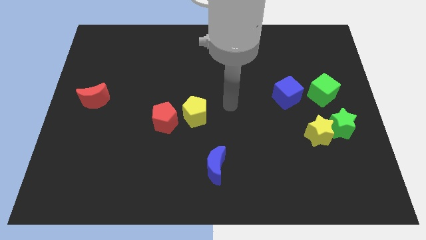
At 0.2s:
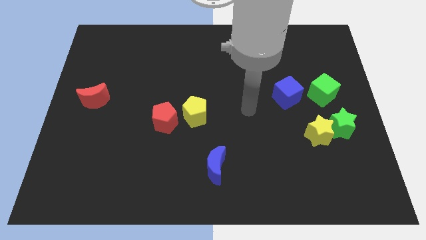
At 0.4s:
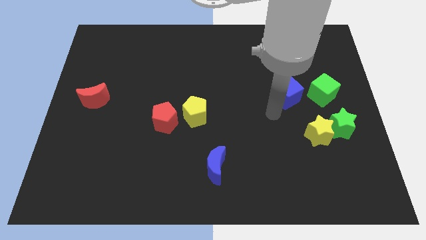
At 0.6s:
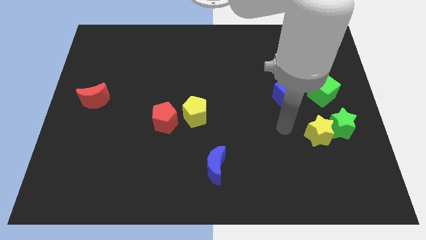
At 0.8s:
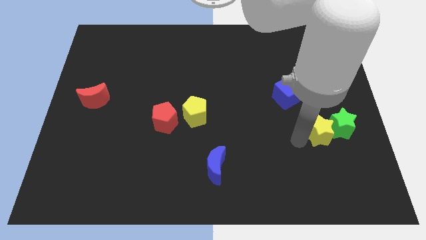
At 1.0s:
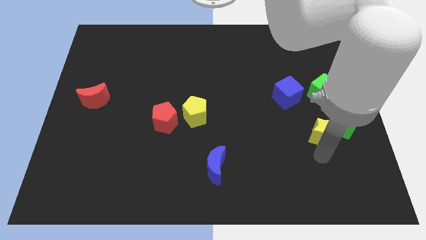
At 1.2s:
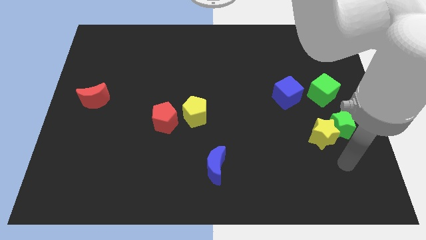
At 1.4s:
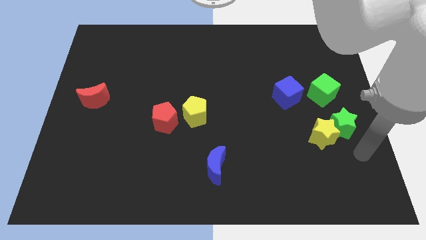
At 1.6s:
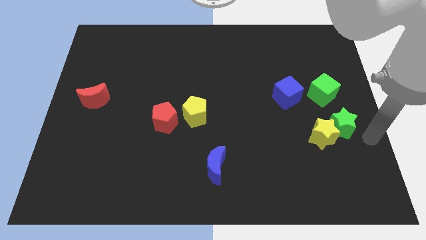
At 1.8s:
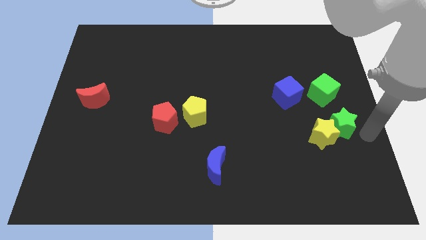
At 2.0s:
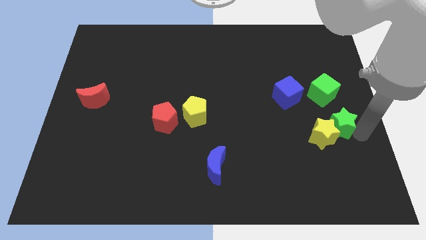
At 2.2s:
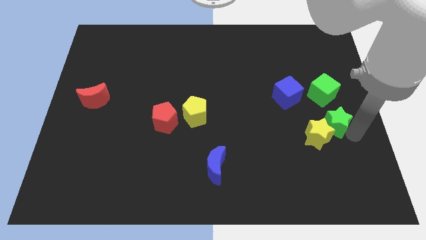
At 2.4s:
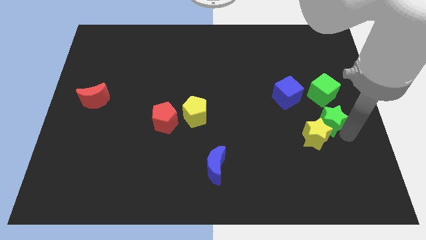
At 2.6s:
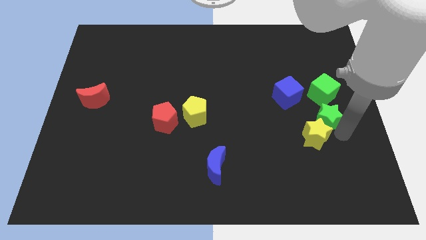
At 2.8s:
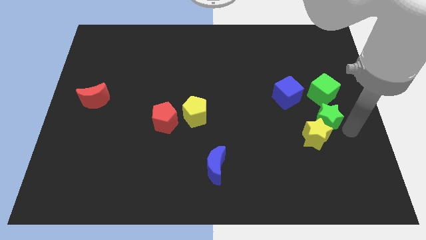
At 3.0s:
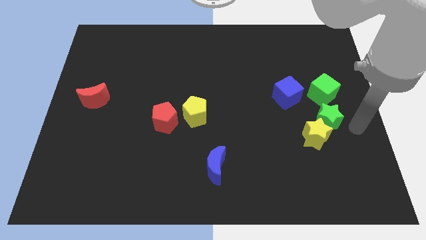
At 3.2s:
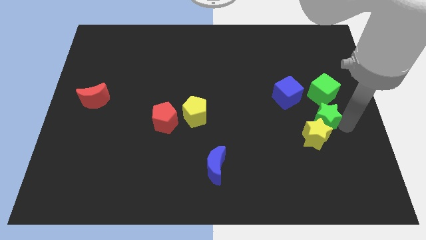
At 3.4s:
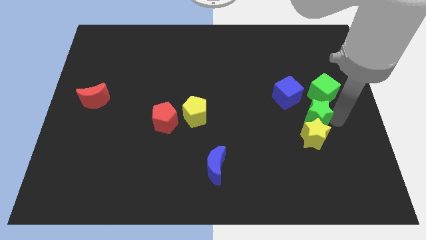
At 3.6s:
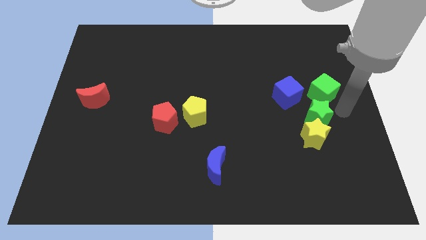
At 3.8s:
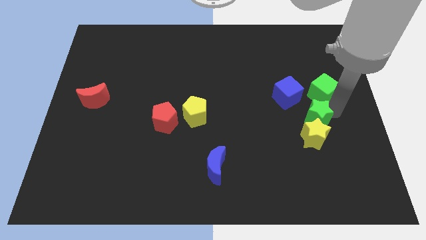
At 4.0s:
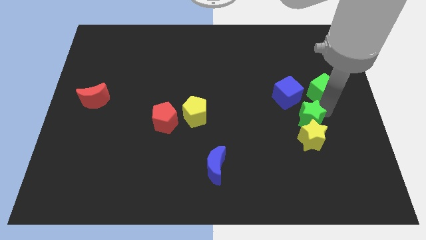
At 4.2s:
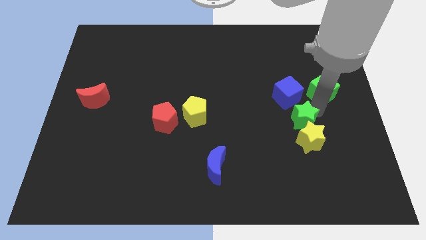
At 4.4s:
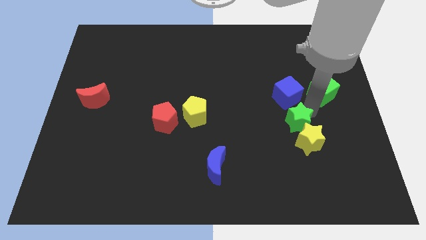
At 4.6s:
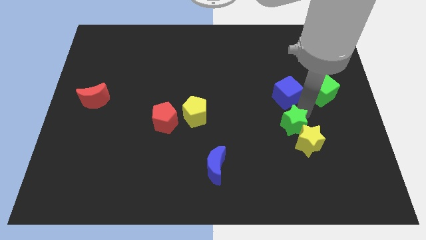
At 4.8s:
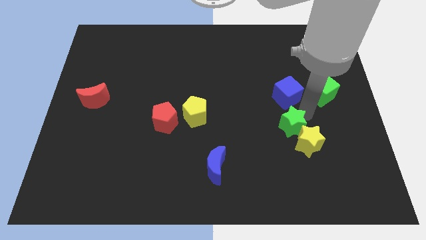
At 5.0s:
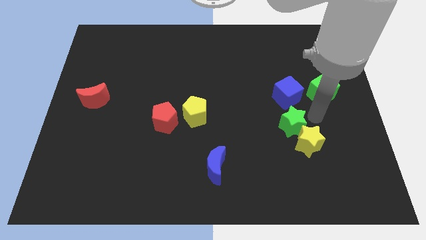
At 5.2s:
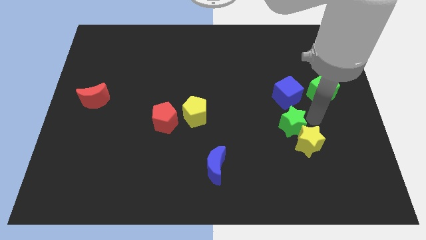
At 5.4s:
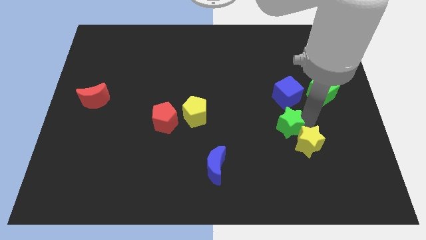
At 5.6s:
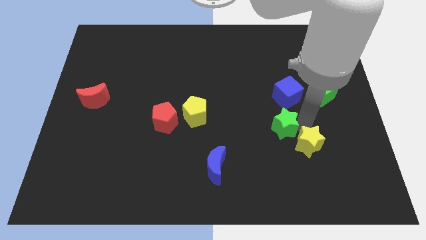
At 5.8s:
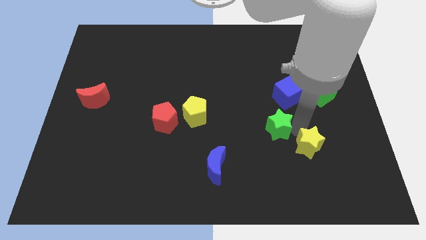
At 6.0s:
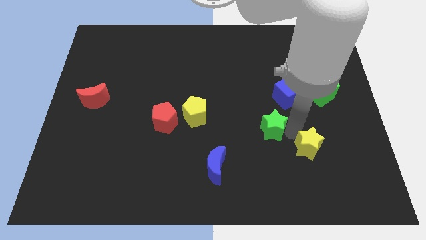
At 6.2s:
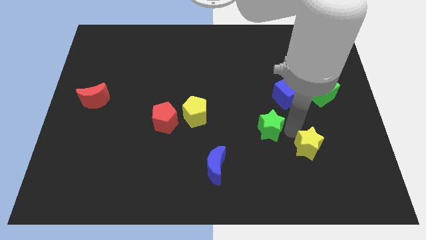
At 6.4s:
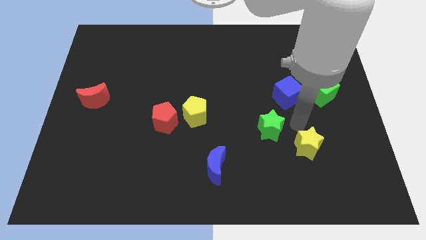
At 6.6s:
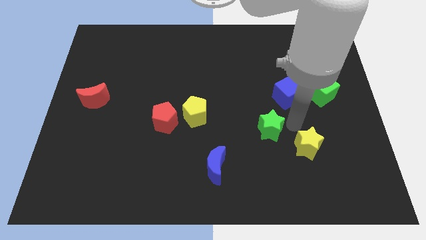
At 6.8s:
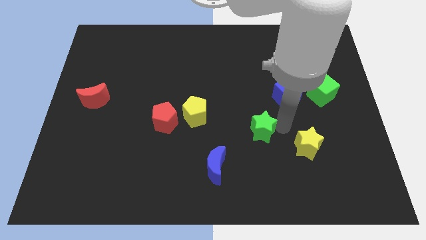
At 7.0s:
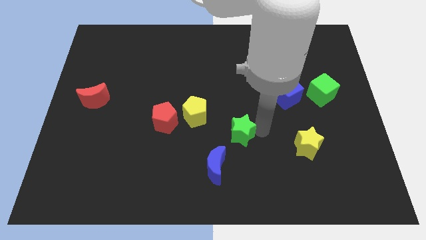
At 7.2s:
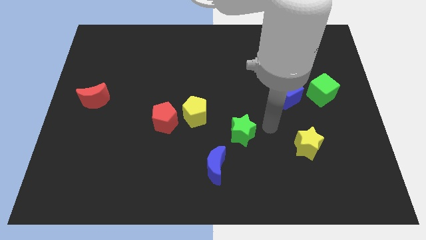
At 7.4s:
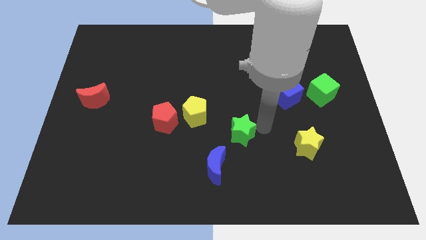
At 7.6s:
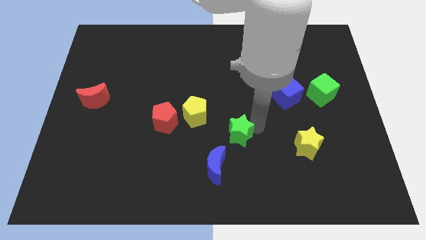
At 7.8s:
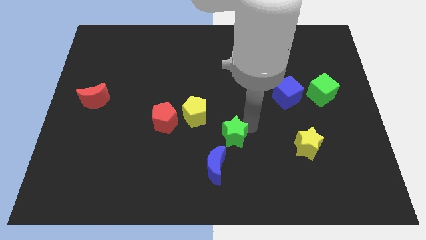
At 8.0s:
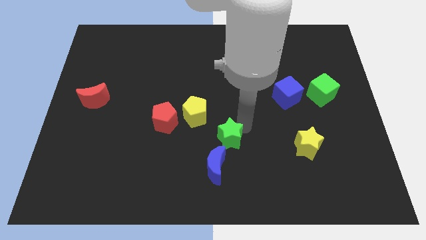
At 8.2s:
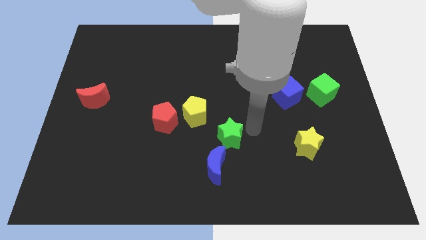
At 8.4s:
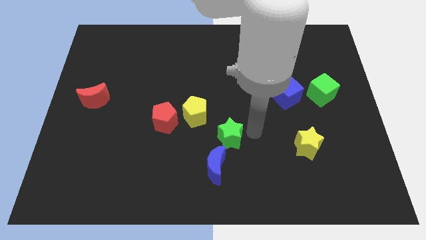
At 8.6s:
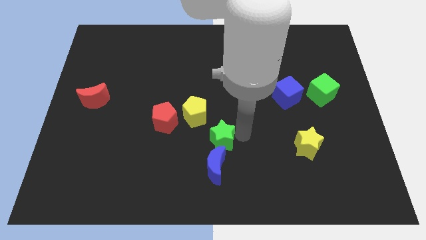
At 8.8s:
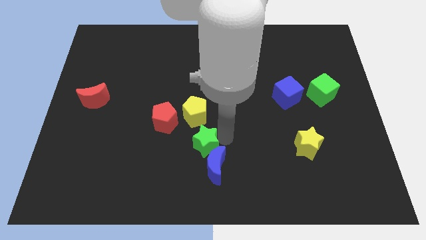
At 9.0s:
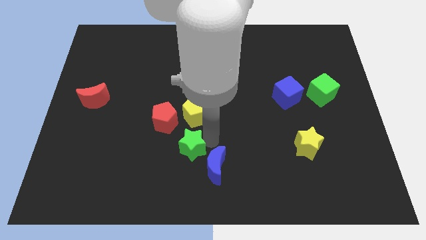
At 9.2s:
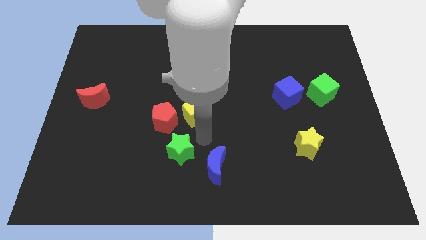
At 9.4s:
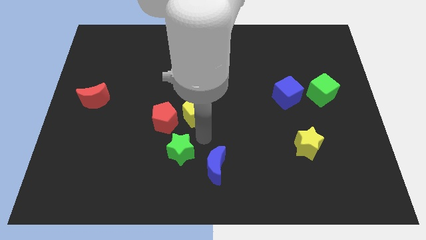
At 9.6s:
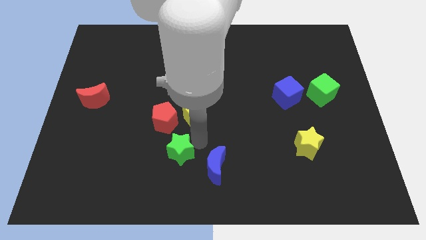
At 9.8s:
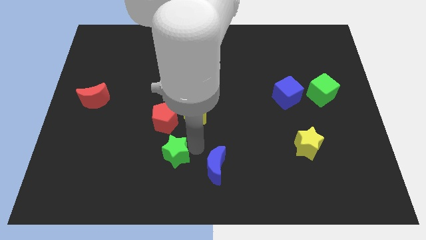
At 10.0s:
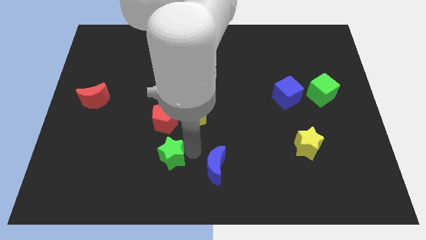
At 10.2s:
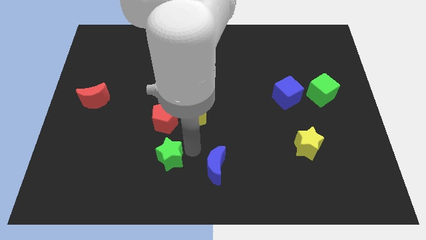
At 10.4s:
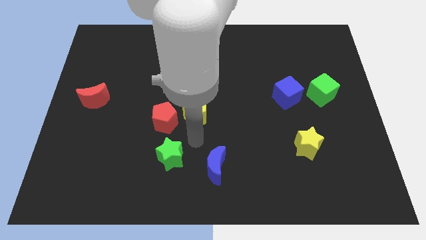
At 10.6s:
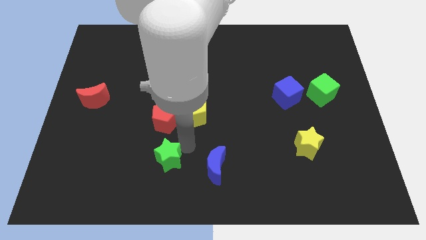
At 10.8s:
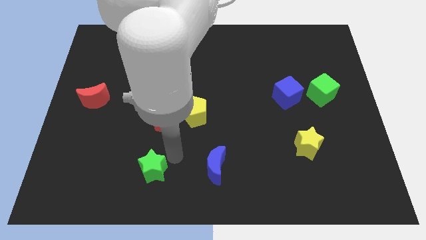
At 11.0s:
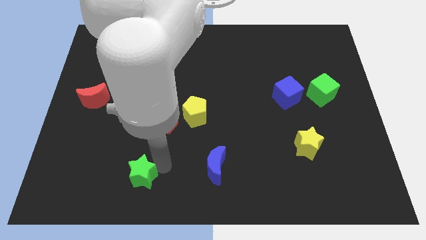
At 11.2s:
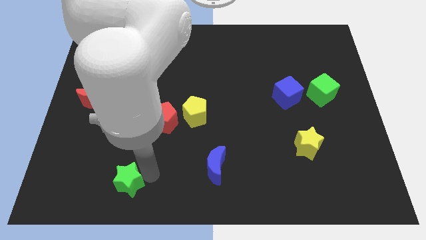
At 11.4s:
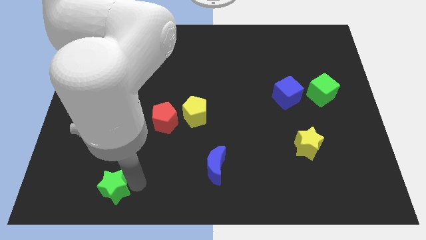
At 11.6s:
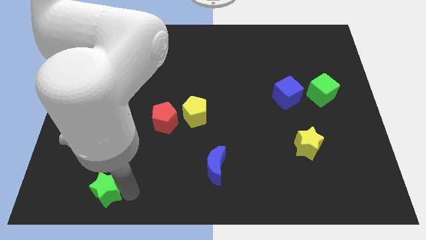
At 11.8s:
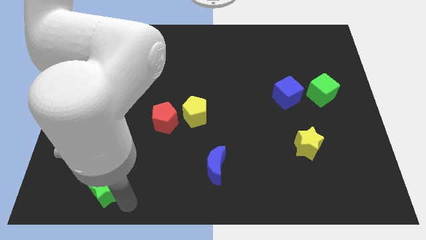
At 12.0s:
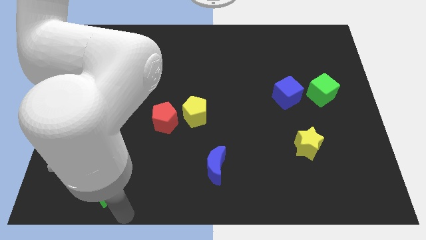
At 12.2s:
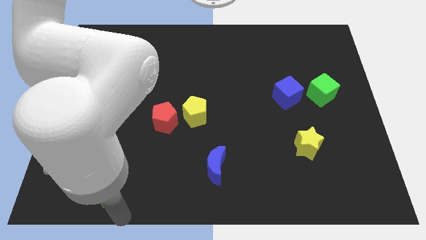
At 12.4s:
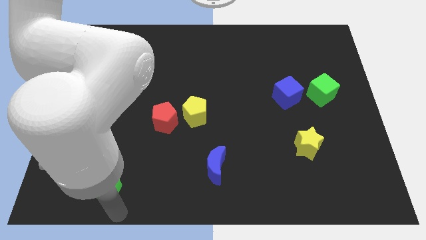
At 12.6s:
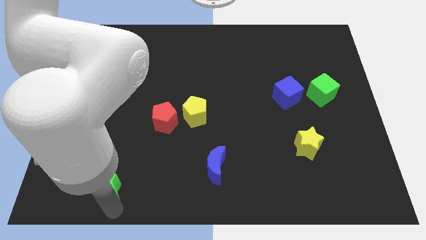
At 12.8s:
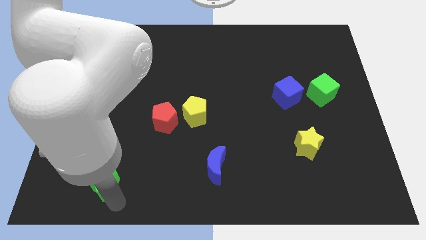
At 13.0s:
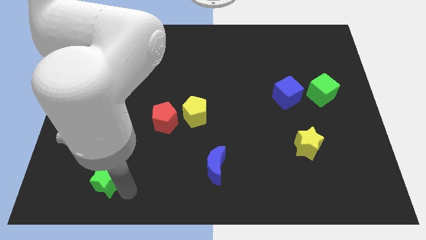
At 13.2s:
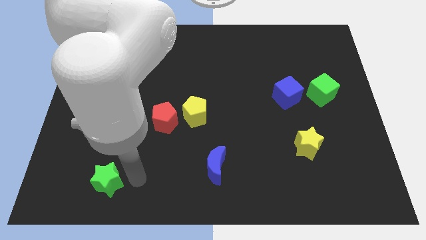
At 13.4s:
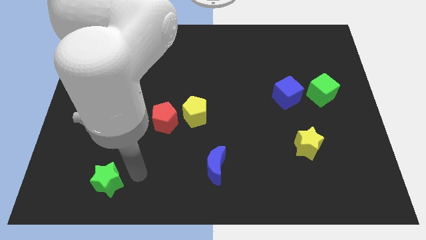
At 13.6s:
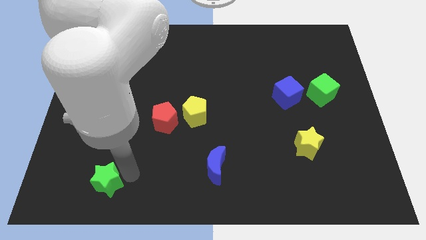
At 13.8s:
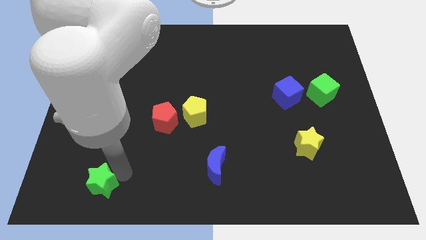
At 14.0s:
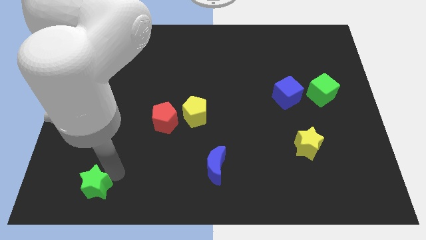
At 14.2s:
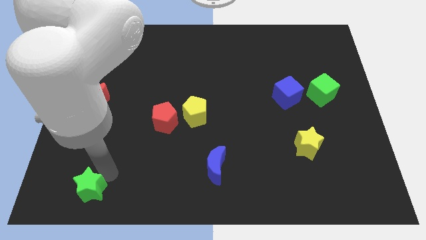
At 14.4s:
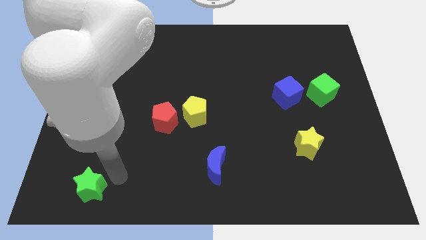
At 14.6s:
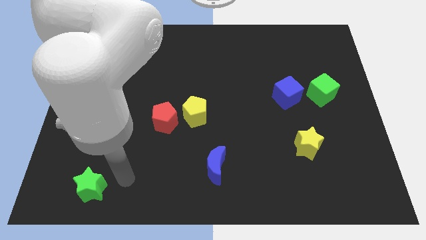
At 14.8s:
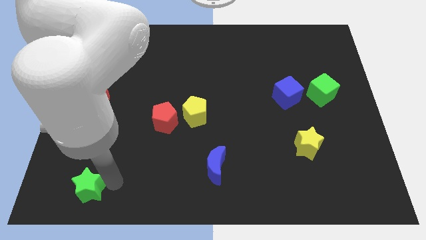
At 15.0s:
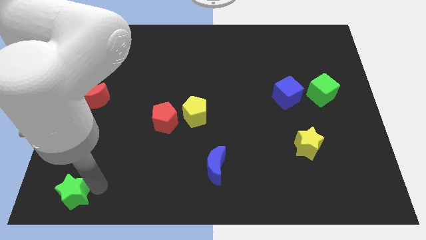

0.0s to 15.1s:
slide the green star to the bottom left of the board
